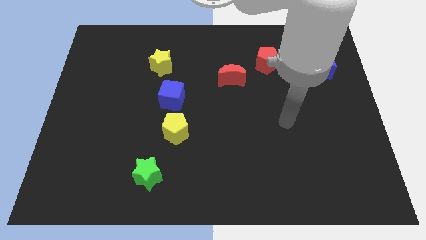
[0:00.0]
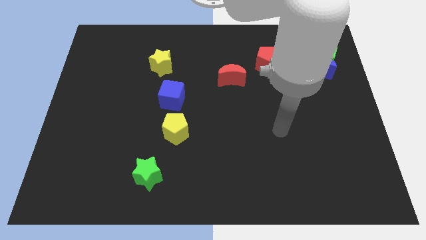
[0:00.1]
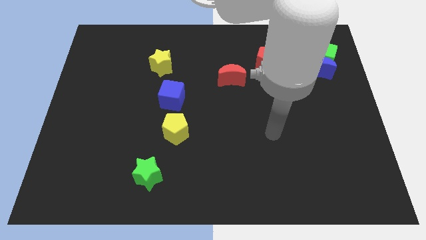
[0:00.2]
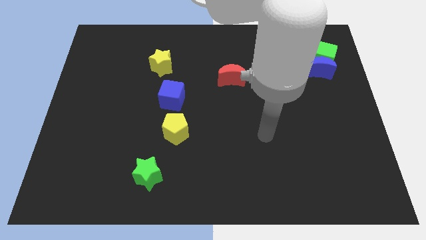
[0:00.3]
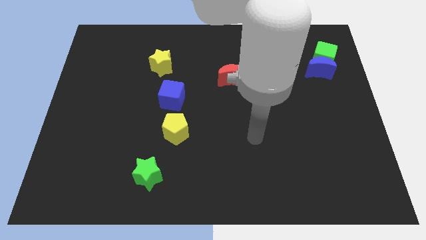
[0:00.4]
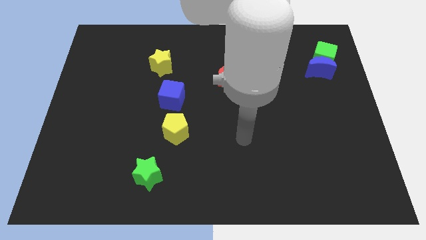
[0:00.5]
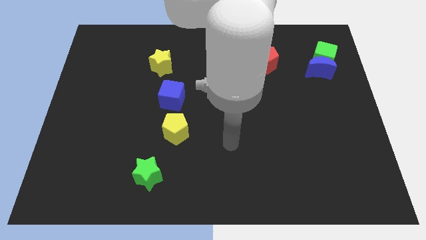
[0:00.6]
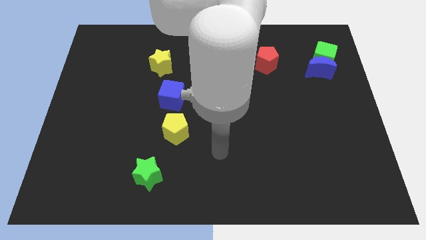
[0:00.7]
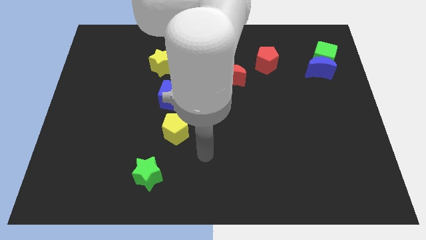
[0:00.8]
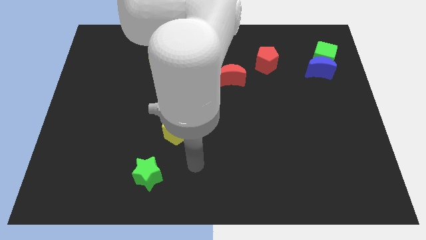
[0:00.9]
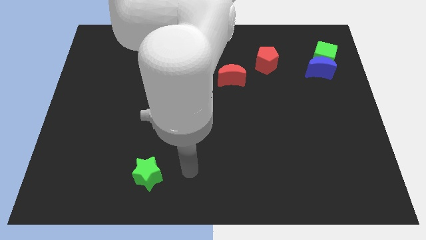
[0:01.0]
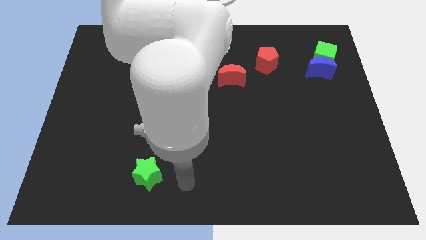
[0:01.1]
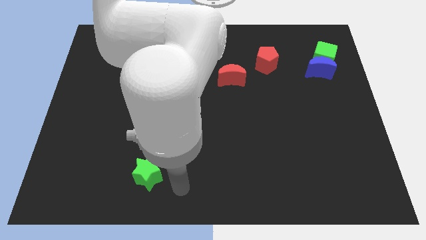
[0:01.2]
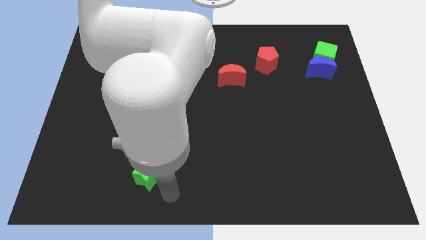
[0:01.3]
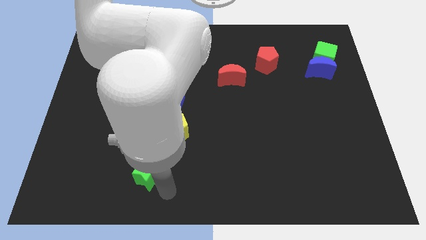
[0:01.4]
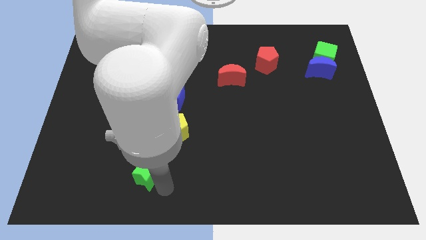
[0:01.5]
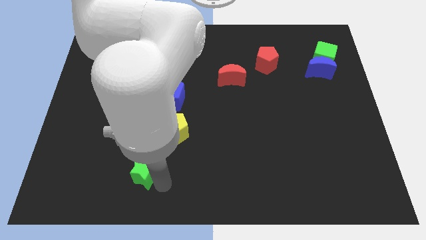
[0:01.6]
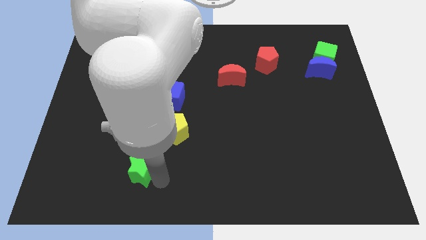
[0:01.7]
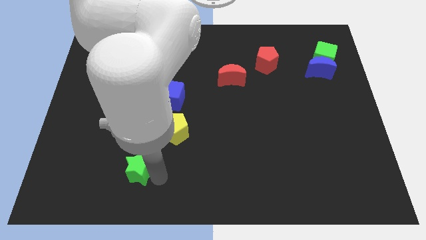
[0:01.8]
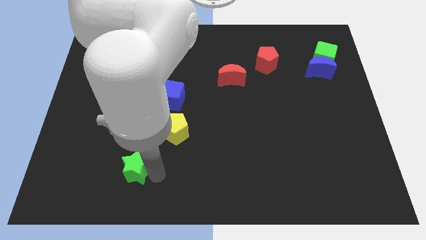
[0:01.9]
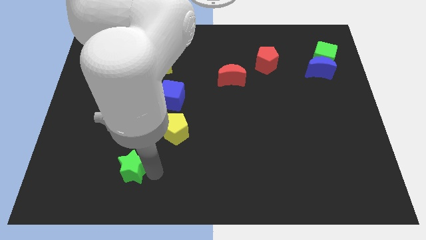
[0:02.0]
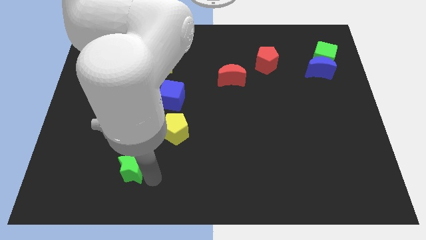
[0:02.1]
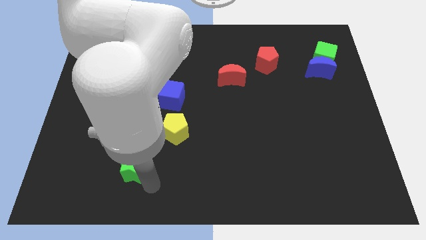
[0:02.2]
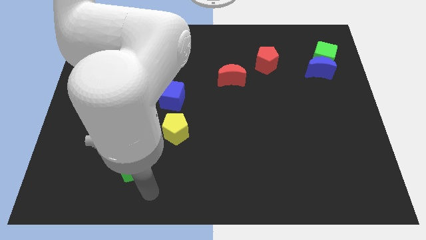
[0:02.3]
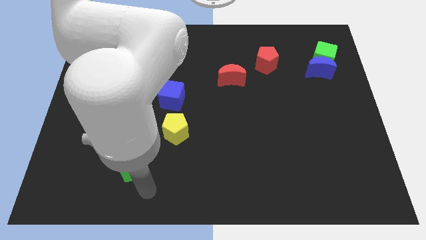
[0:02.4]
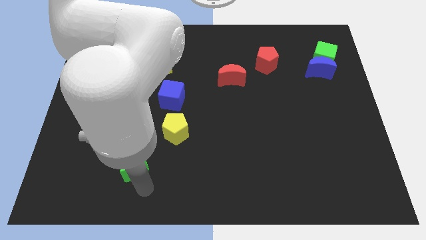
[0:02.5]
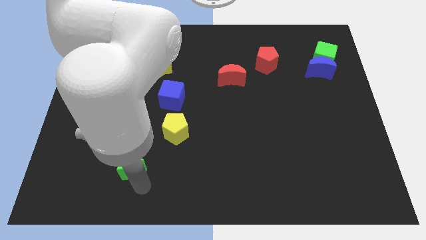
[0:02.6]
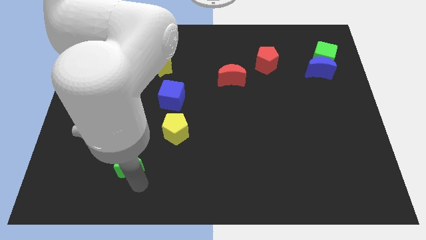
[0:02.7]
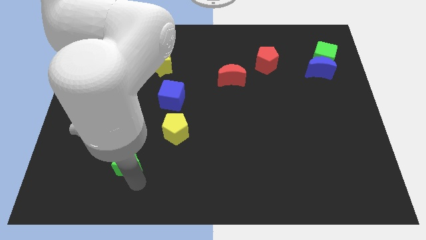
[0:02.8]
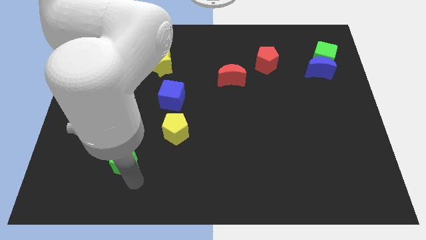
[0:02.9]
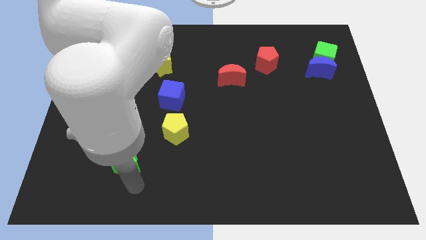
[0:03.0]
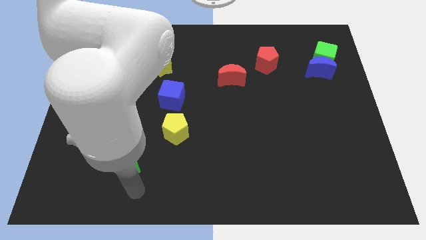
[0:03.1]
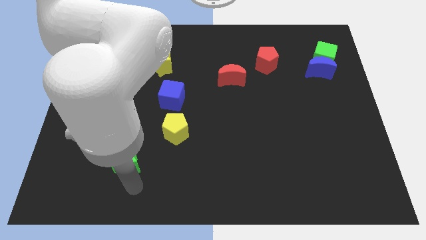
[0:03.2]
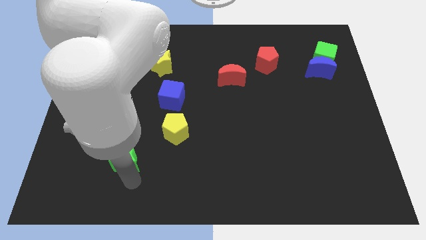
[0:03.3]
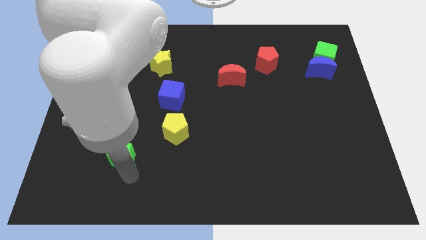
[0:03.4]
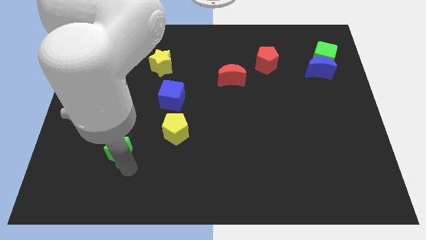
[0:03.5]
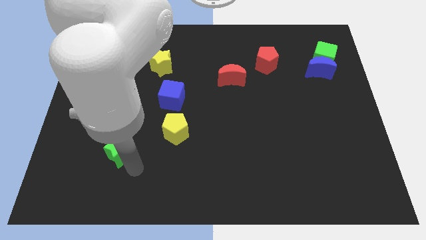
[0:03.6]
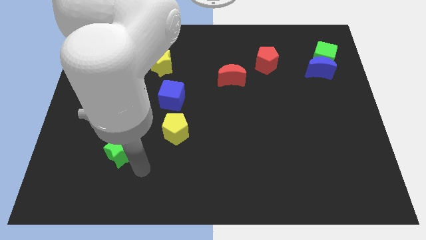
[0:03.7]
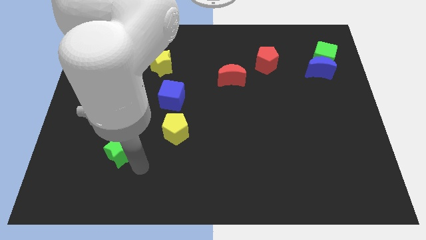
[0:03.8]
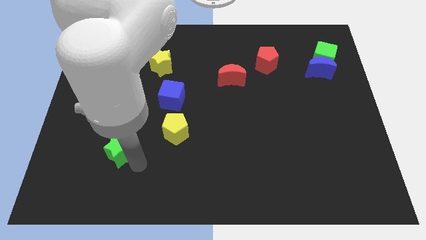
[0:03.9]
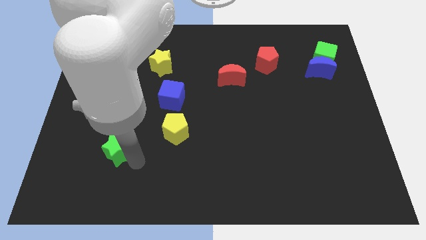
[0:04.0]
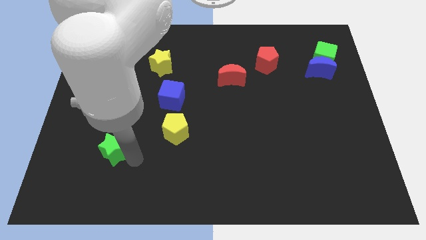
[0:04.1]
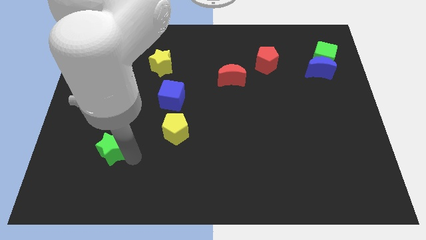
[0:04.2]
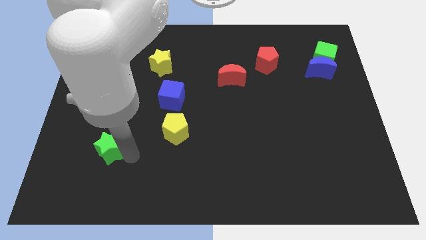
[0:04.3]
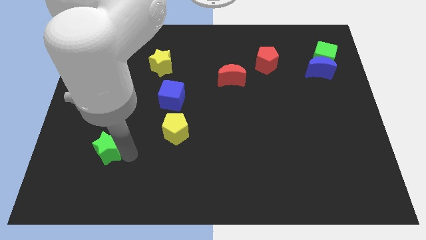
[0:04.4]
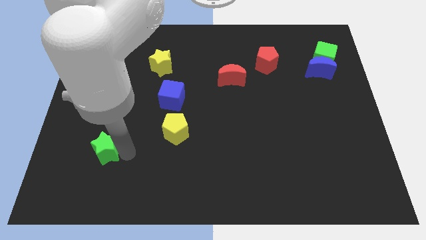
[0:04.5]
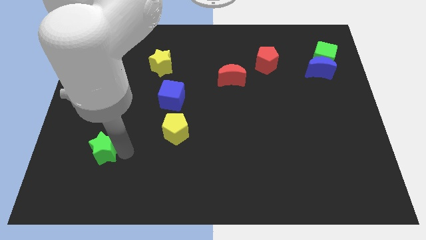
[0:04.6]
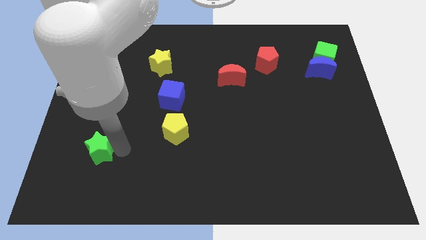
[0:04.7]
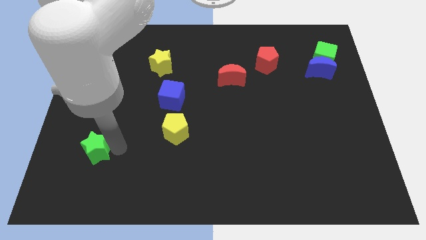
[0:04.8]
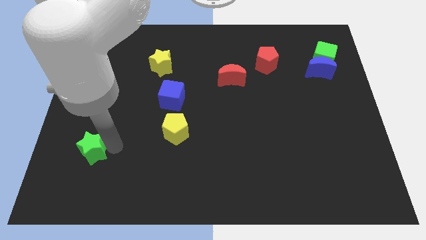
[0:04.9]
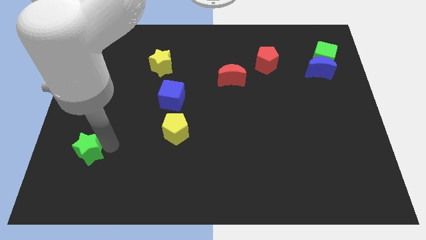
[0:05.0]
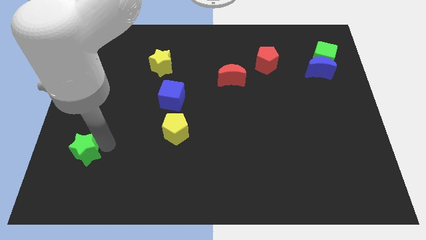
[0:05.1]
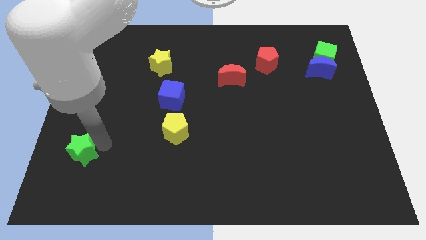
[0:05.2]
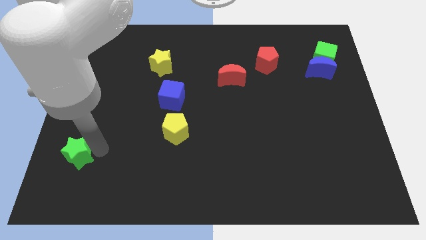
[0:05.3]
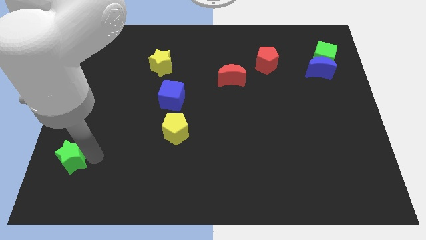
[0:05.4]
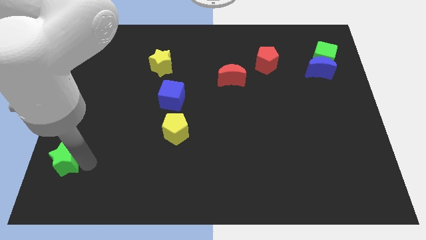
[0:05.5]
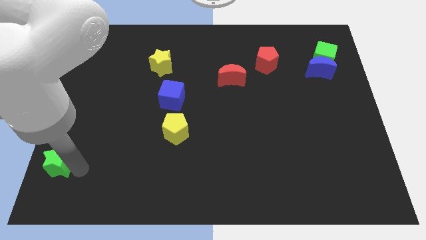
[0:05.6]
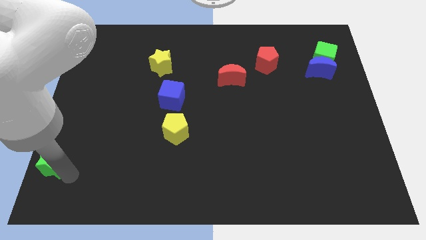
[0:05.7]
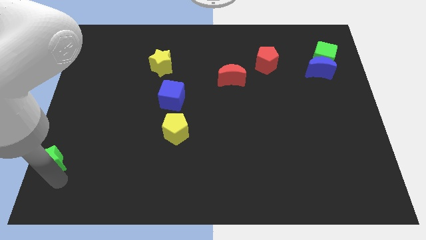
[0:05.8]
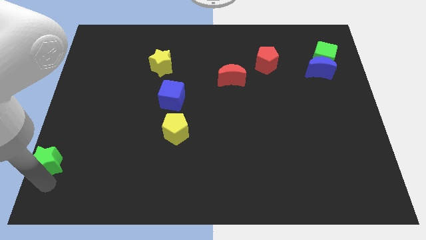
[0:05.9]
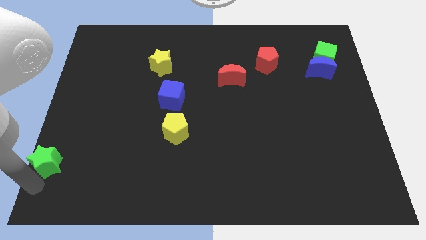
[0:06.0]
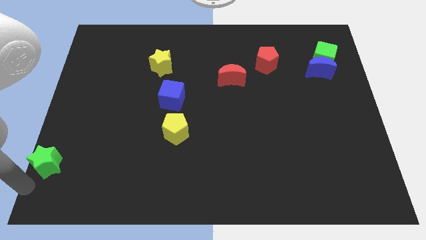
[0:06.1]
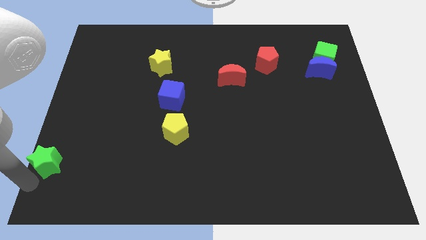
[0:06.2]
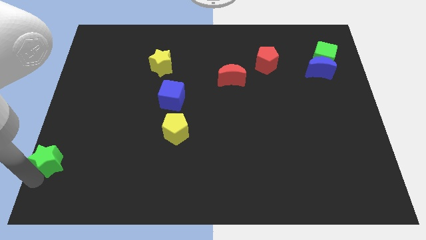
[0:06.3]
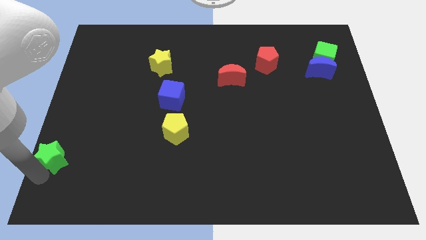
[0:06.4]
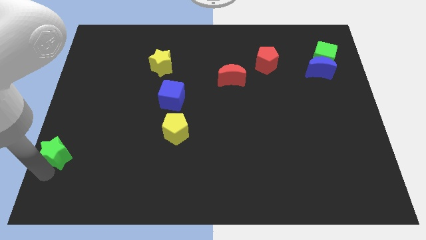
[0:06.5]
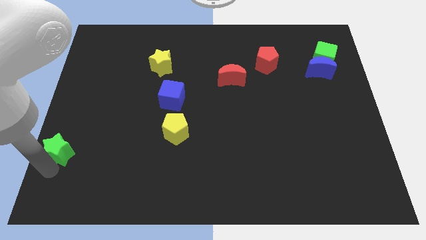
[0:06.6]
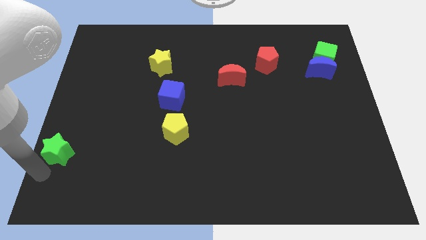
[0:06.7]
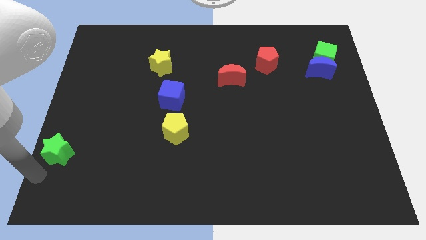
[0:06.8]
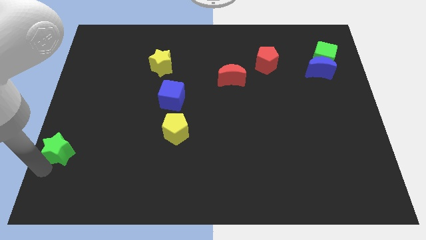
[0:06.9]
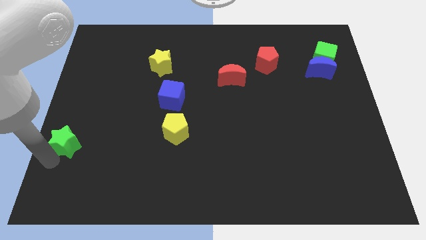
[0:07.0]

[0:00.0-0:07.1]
slide the green star to the left side of the board
